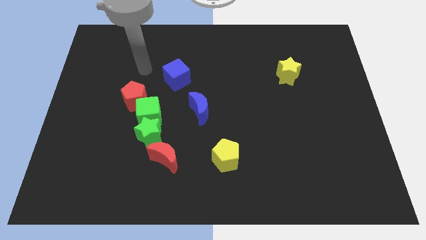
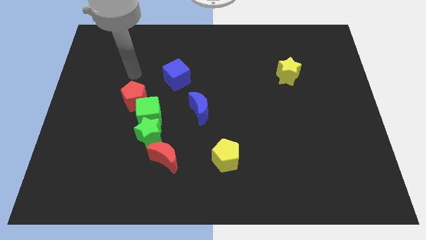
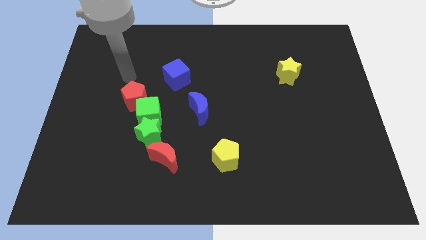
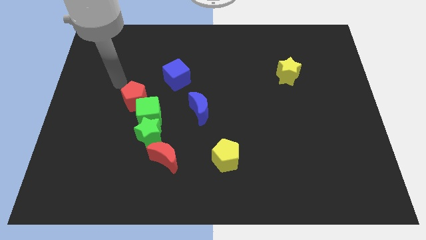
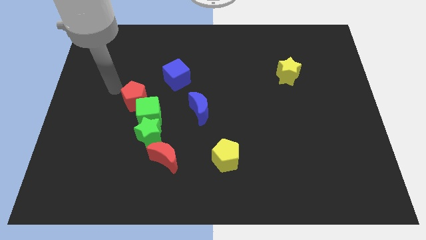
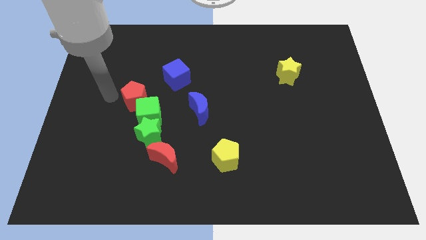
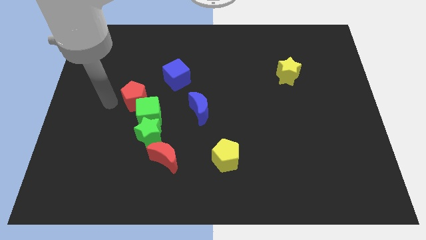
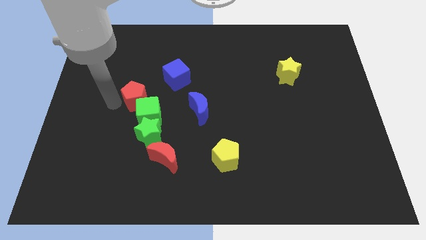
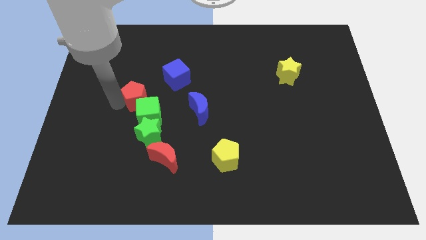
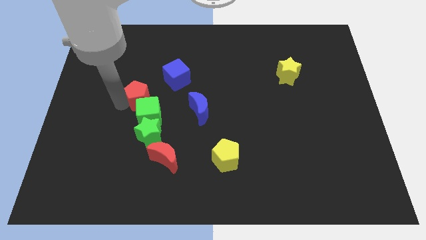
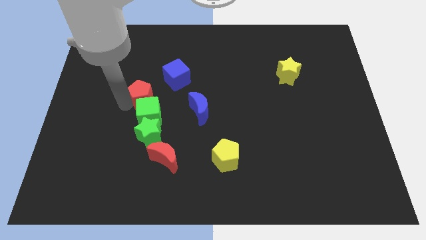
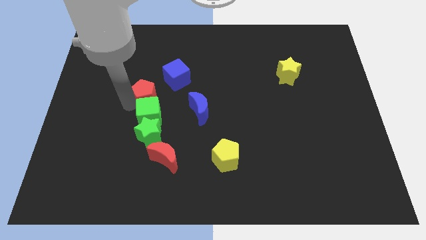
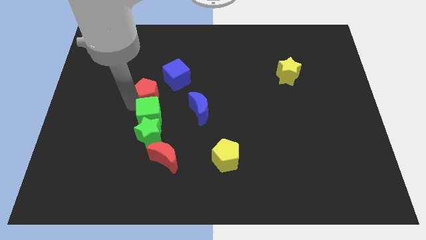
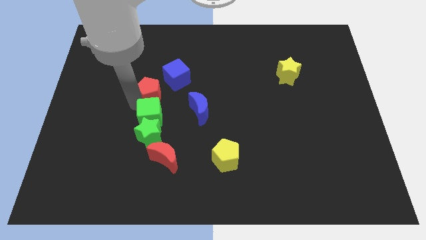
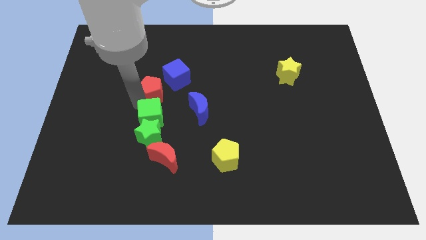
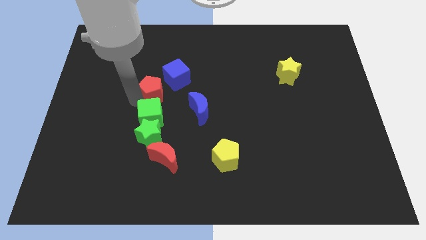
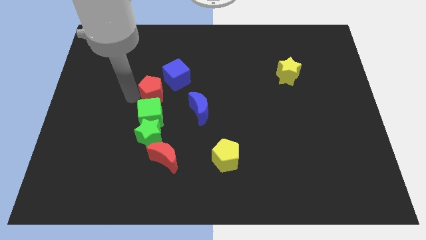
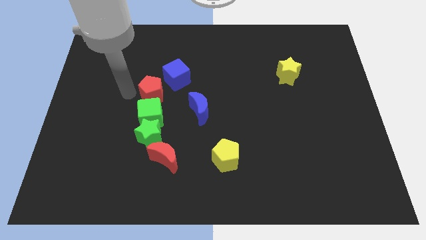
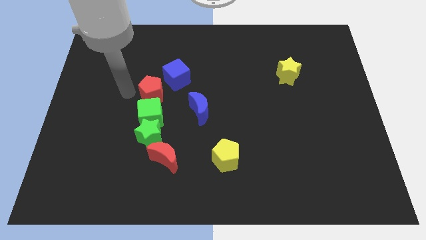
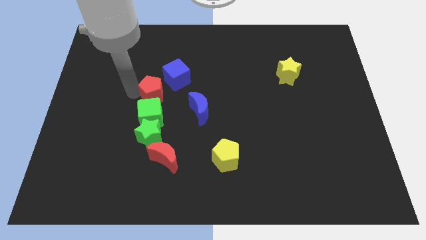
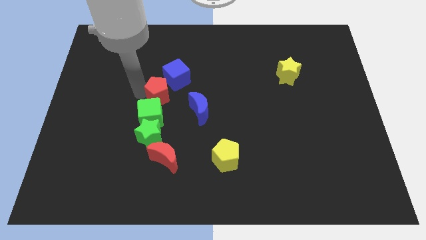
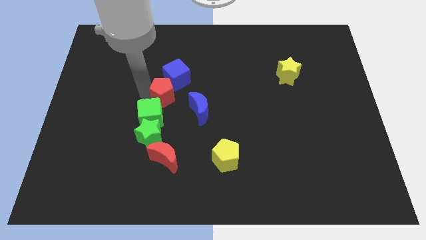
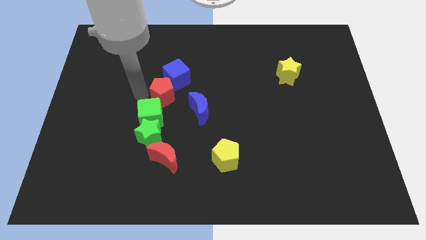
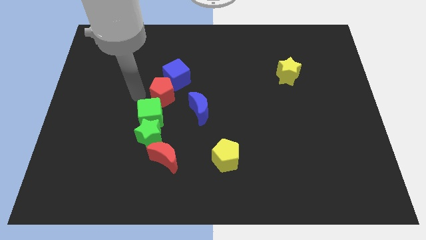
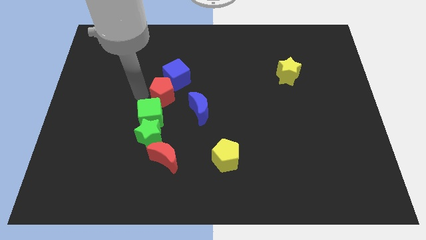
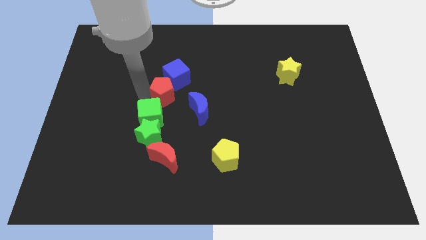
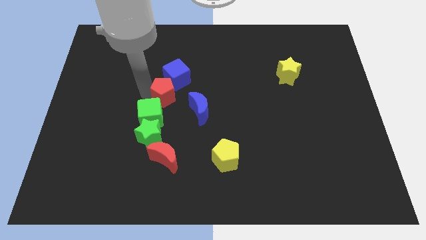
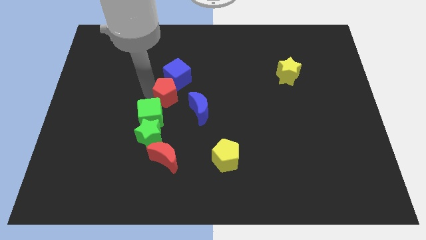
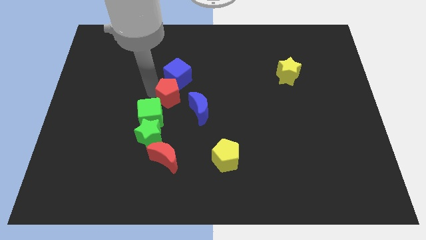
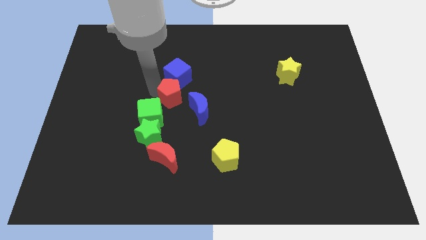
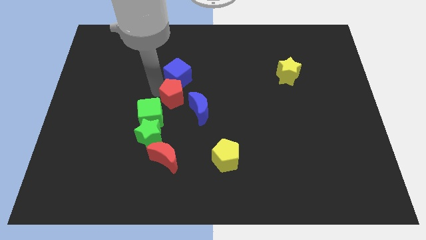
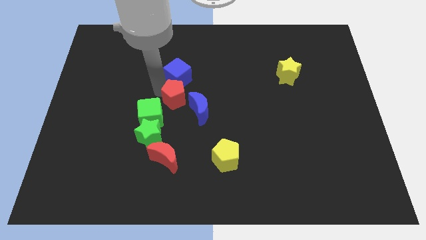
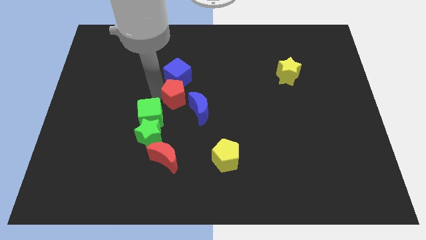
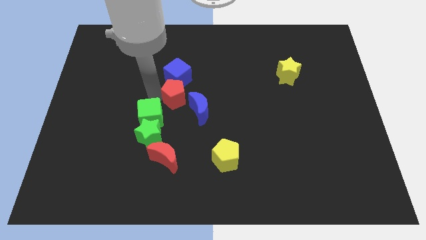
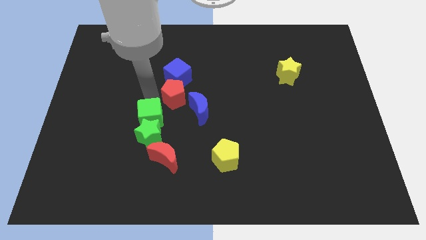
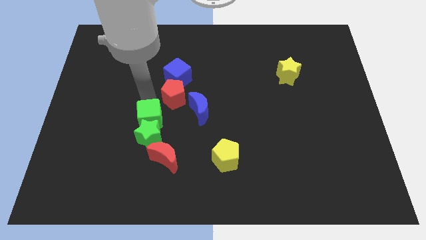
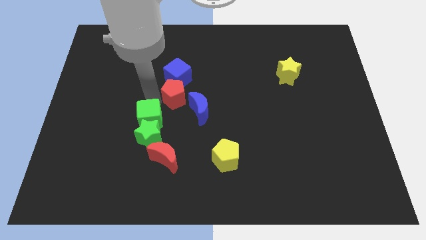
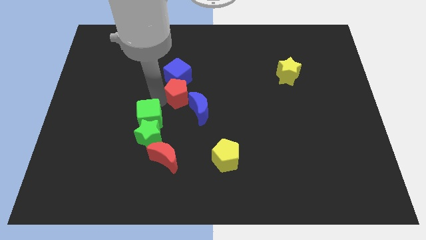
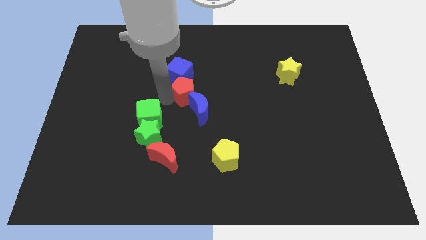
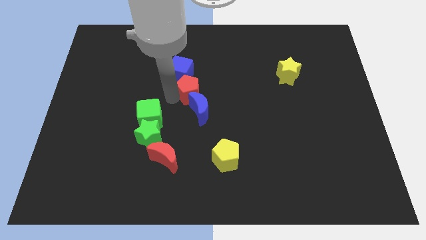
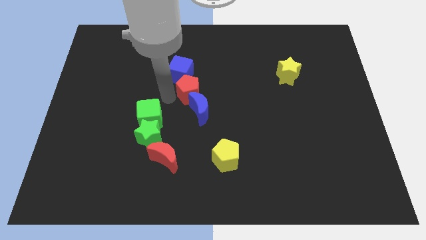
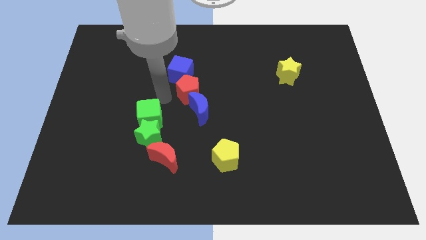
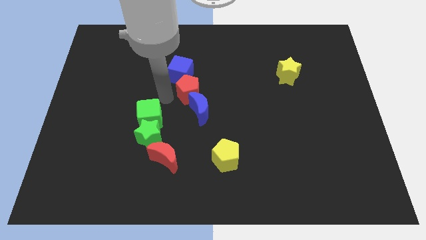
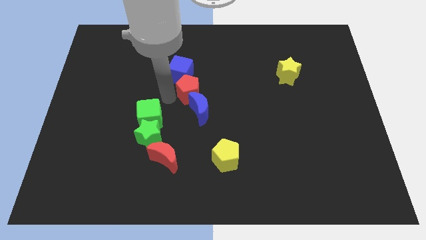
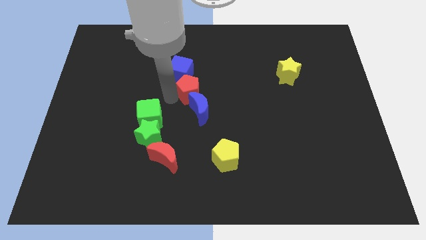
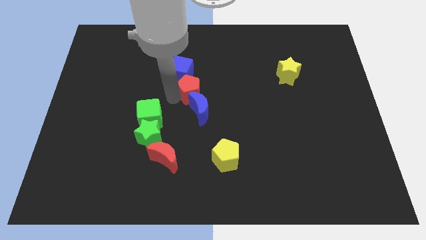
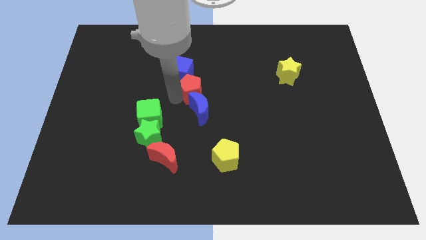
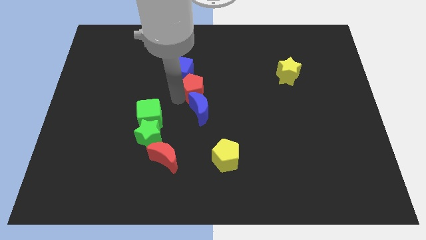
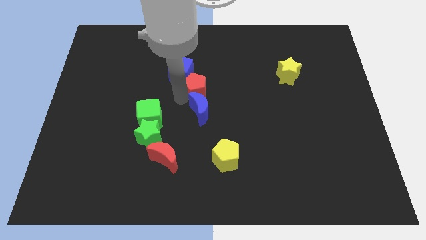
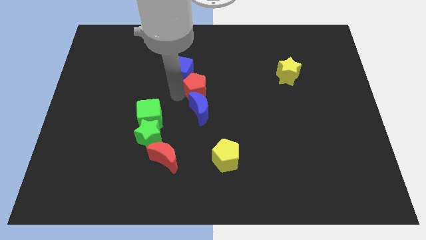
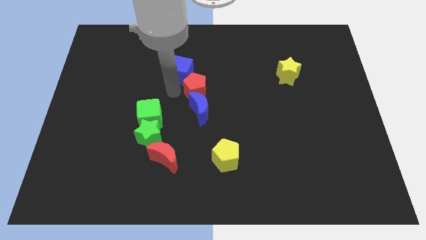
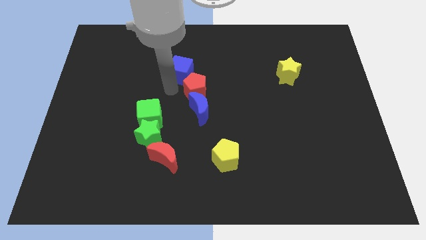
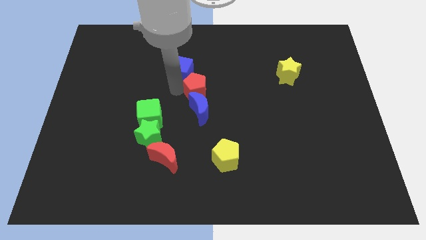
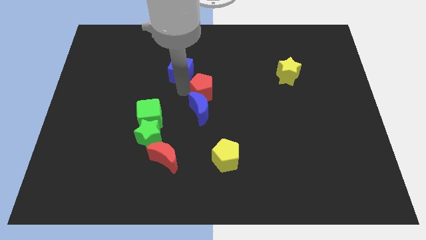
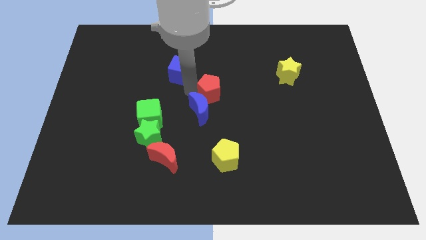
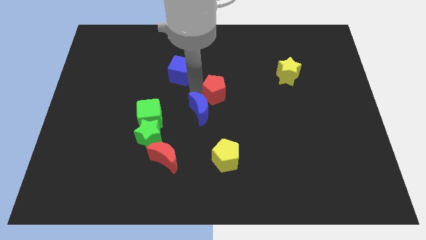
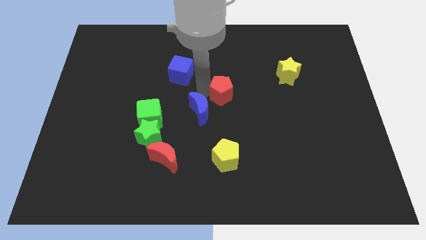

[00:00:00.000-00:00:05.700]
push the red pentagon to the right

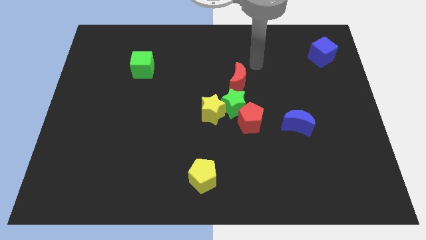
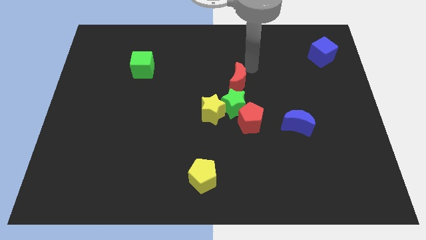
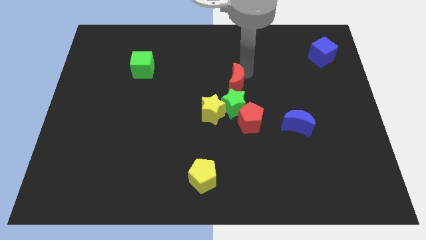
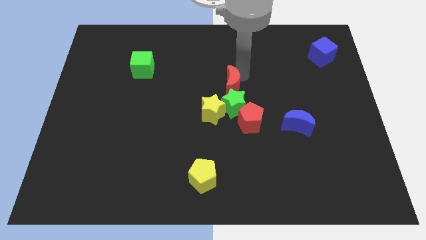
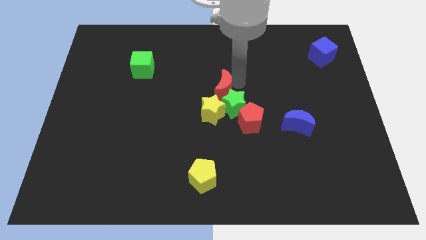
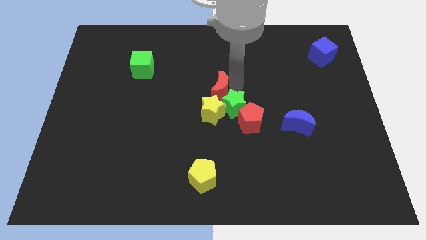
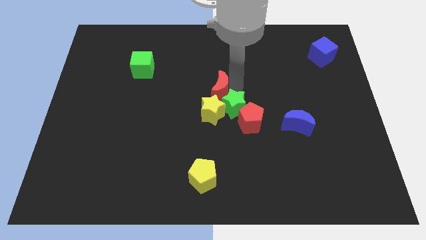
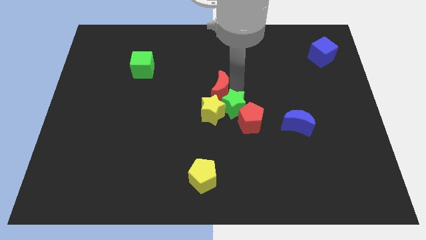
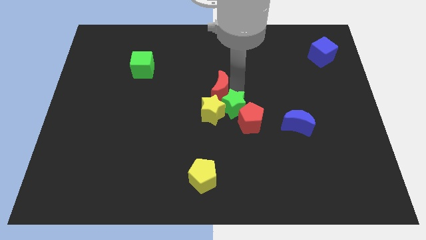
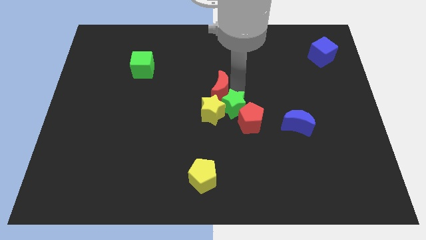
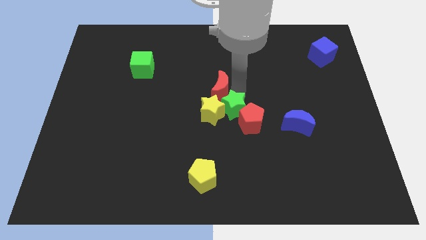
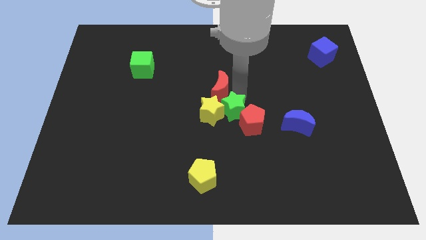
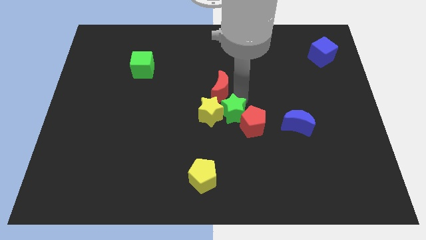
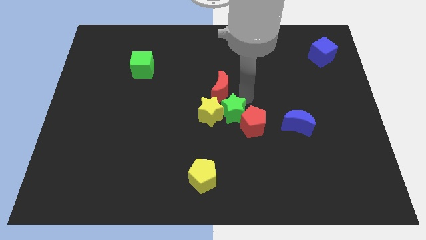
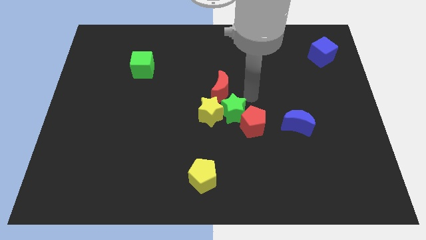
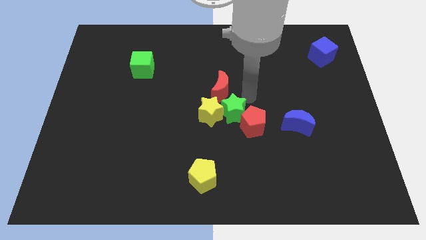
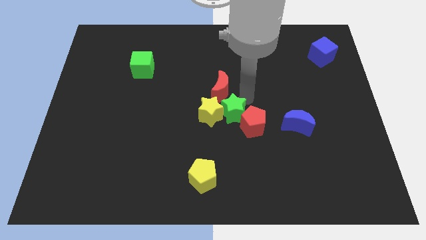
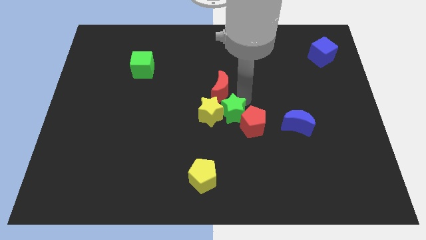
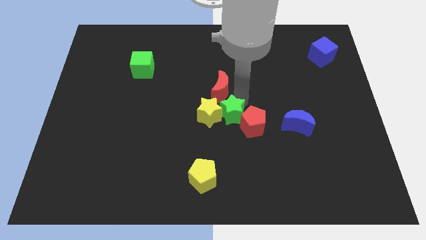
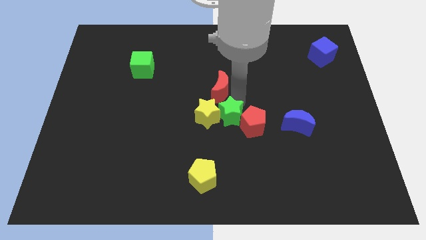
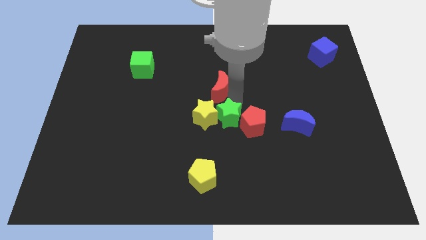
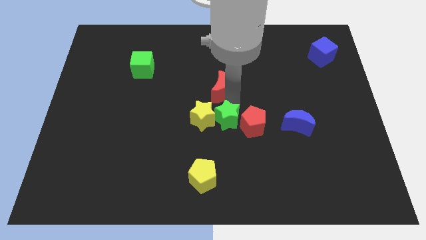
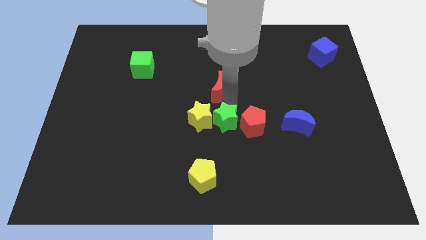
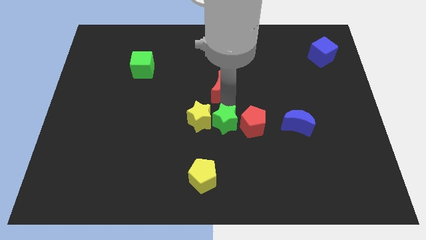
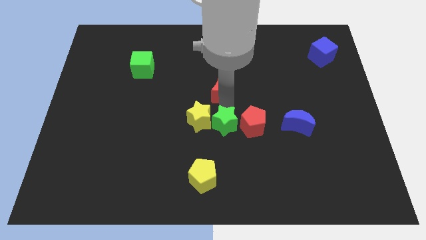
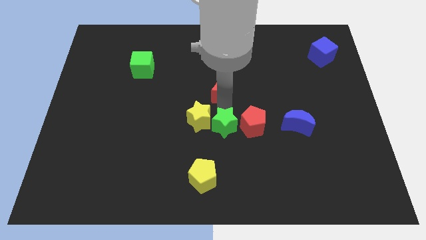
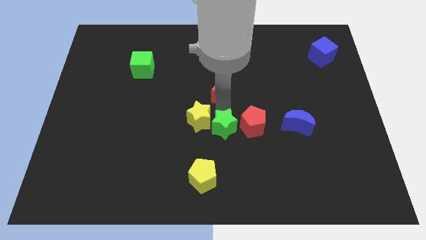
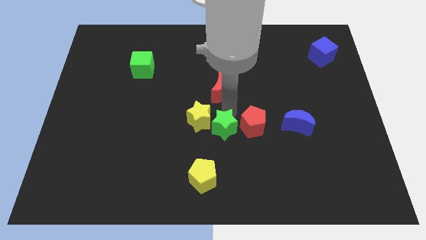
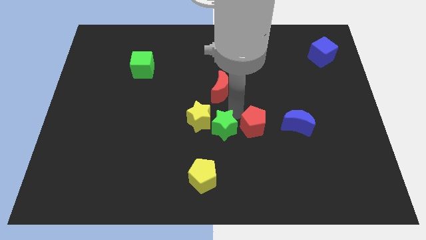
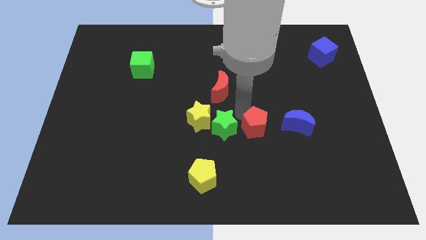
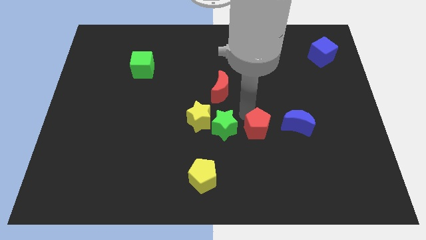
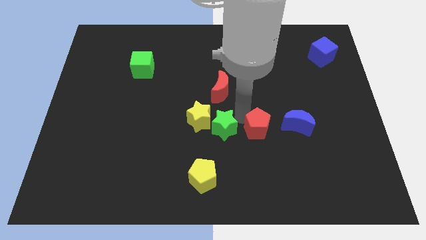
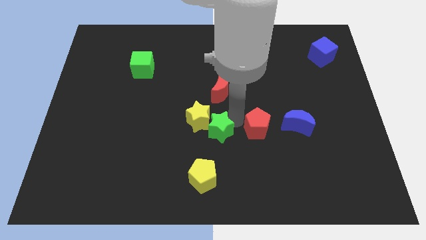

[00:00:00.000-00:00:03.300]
slide the green star down and then left somewhat
